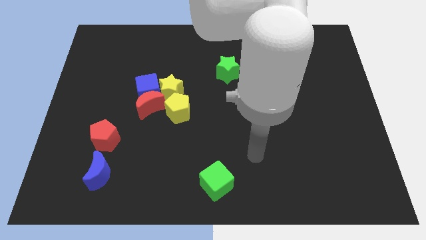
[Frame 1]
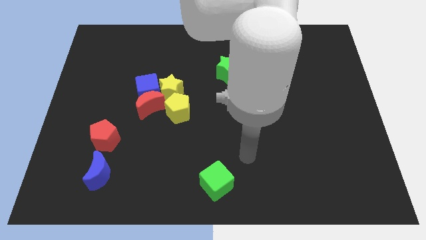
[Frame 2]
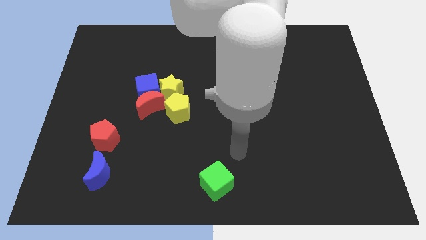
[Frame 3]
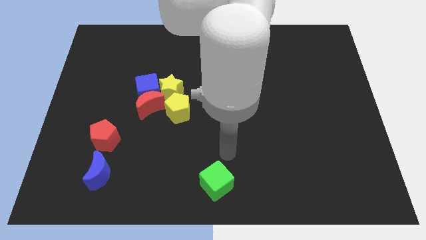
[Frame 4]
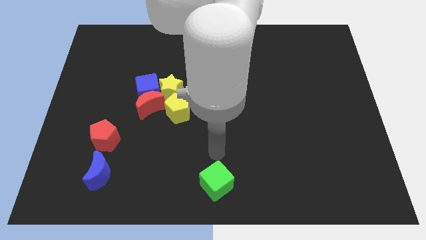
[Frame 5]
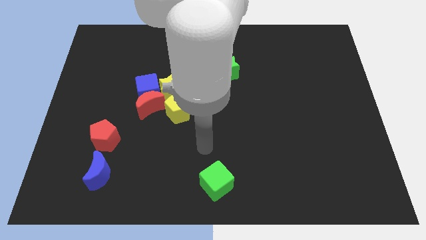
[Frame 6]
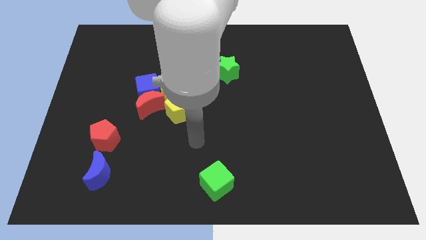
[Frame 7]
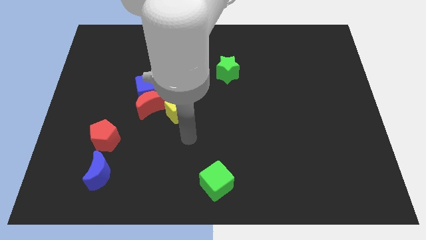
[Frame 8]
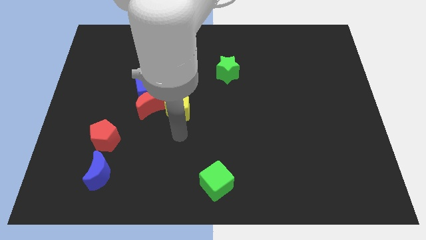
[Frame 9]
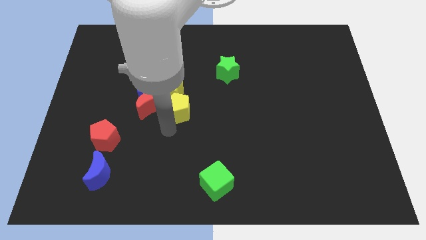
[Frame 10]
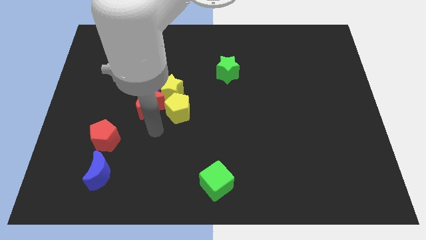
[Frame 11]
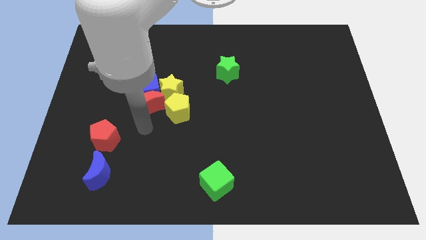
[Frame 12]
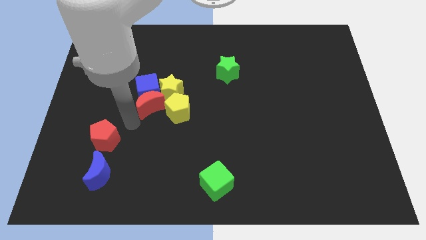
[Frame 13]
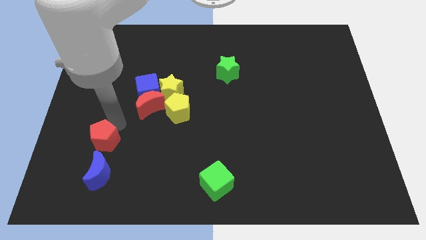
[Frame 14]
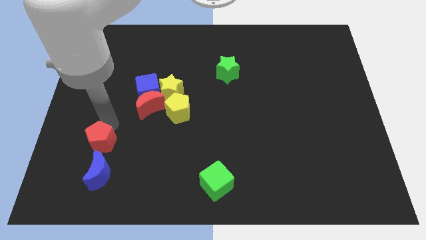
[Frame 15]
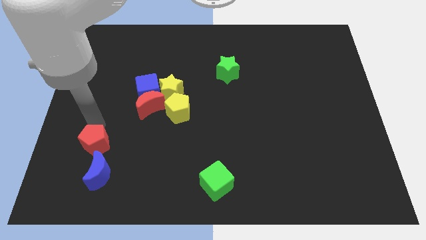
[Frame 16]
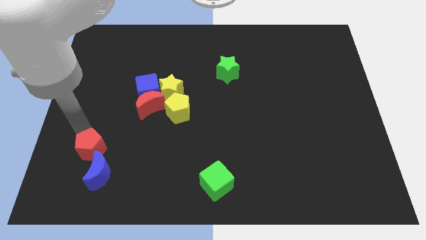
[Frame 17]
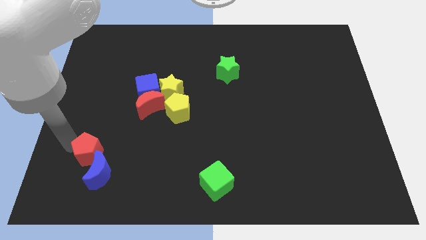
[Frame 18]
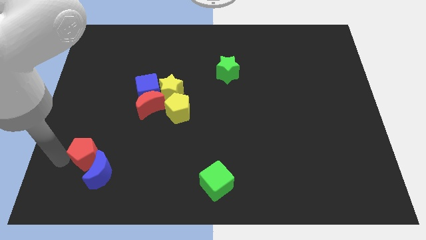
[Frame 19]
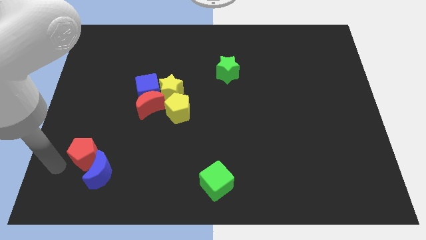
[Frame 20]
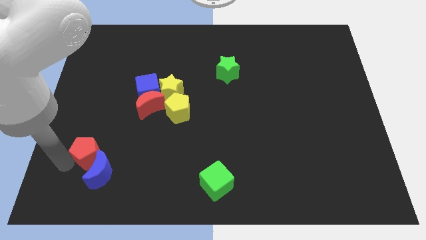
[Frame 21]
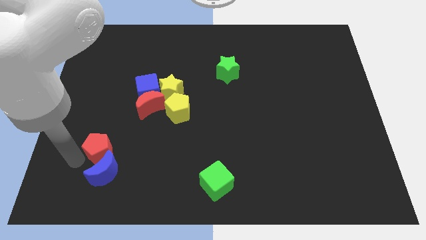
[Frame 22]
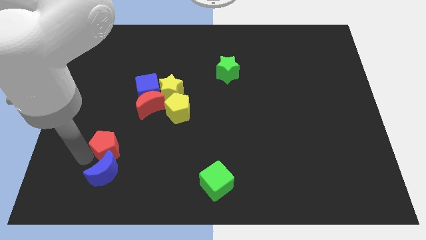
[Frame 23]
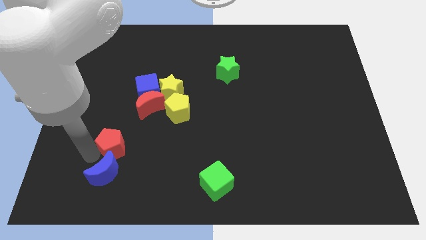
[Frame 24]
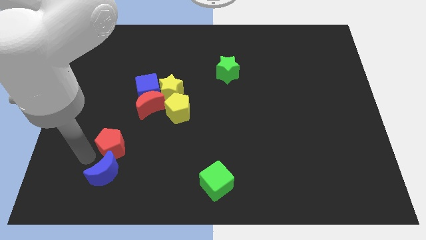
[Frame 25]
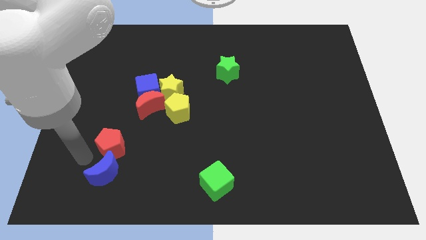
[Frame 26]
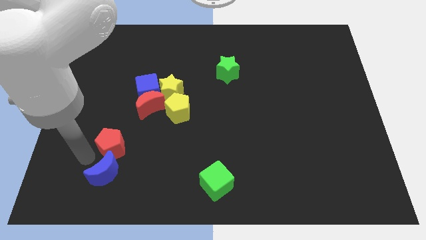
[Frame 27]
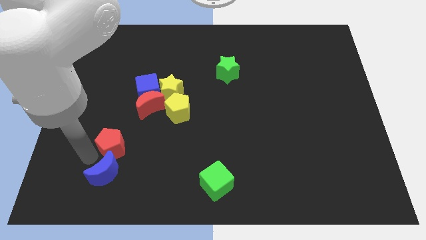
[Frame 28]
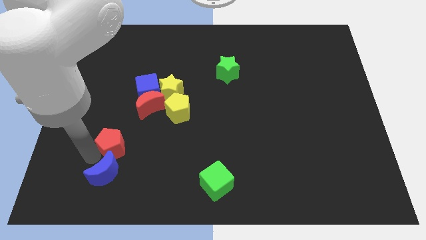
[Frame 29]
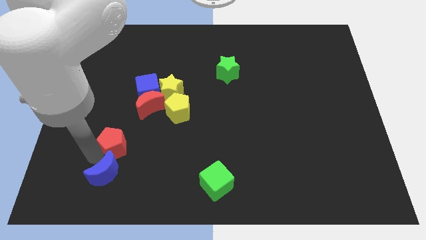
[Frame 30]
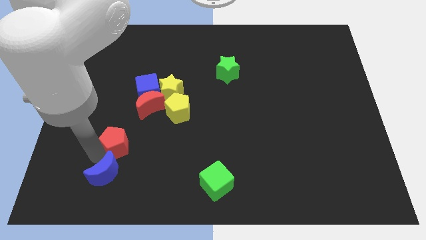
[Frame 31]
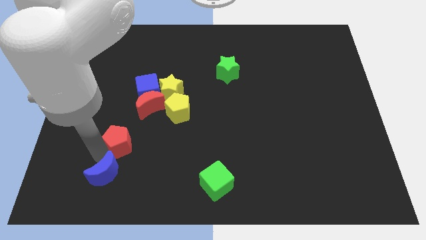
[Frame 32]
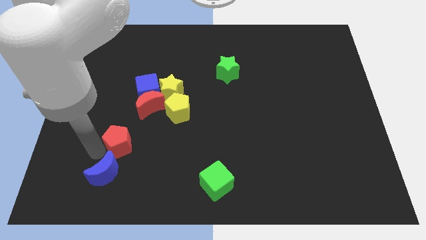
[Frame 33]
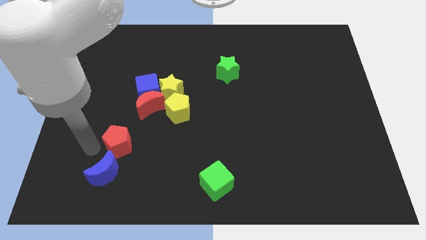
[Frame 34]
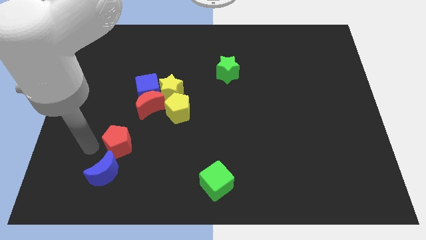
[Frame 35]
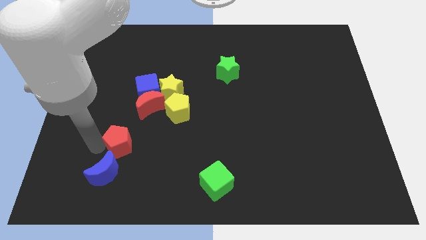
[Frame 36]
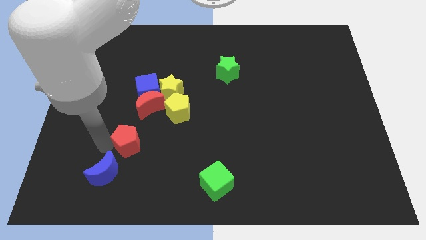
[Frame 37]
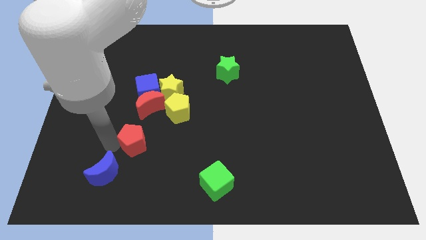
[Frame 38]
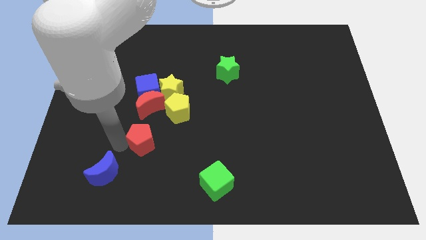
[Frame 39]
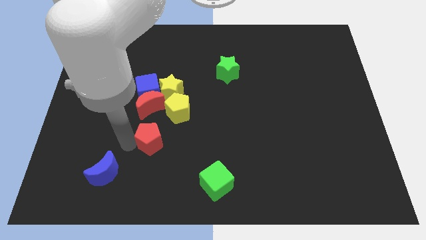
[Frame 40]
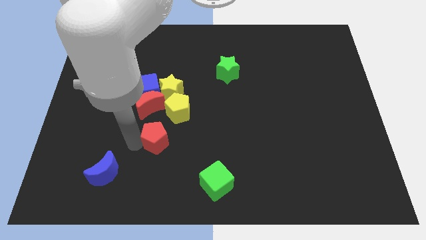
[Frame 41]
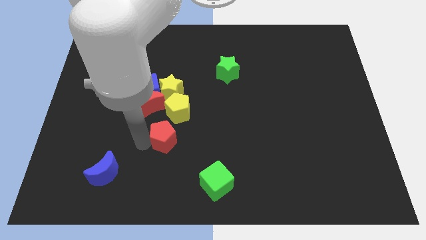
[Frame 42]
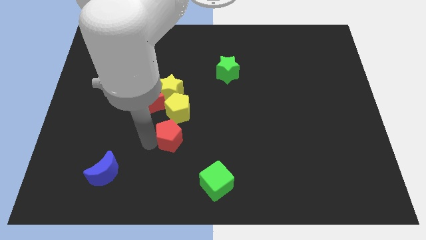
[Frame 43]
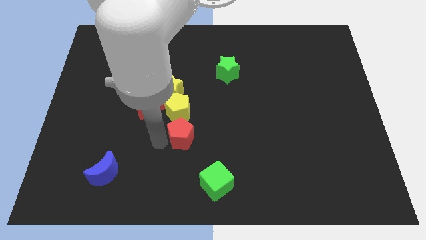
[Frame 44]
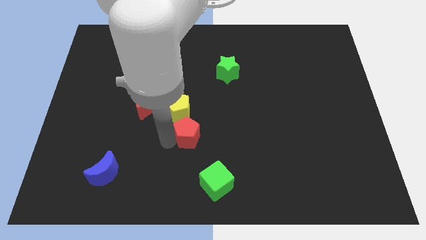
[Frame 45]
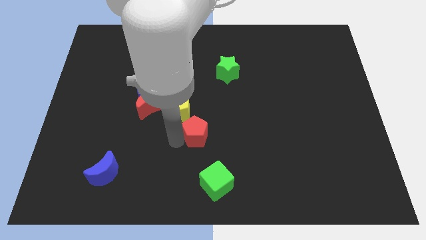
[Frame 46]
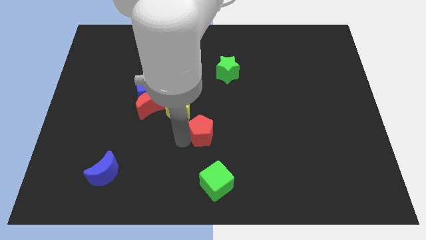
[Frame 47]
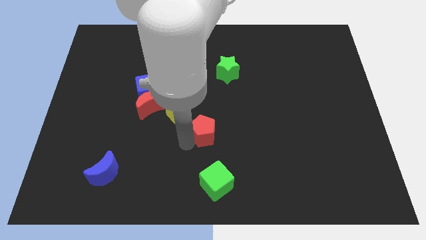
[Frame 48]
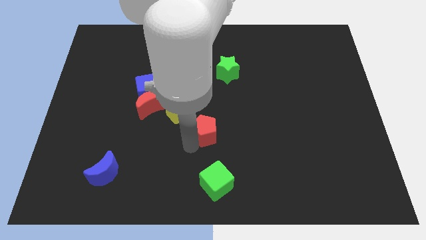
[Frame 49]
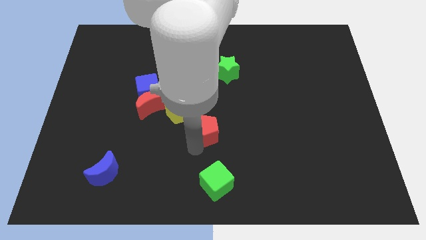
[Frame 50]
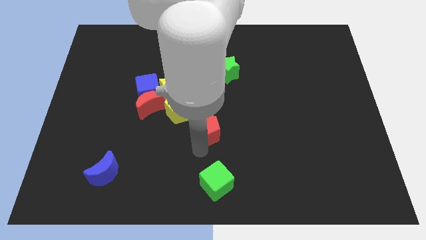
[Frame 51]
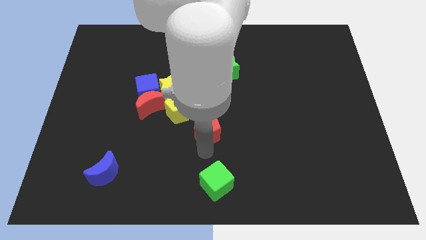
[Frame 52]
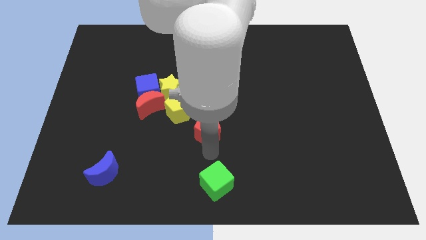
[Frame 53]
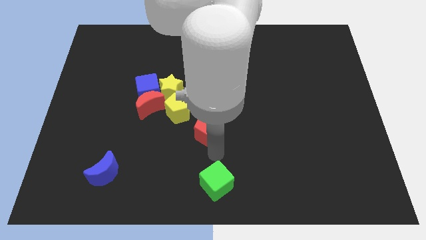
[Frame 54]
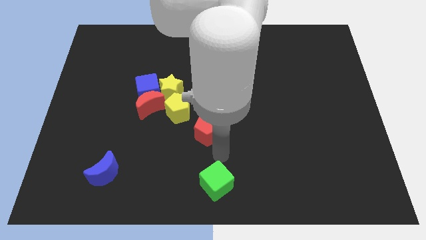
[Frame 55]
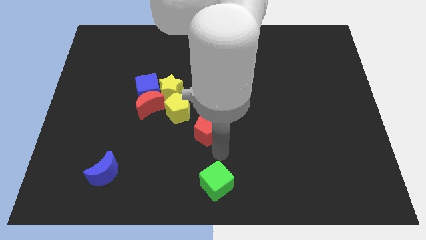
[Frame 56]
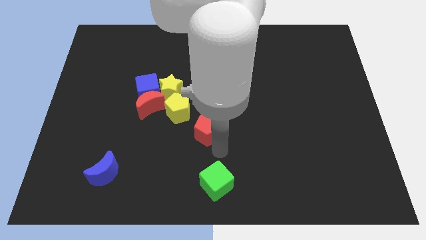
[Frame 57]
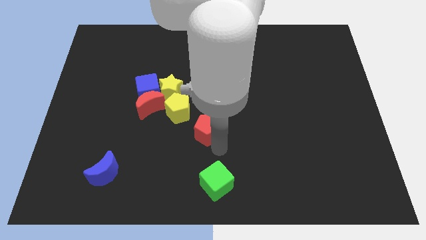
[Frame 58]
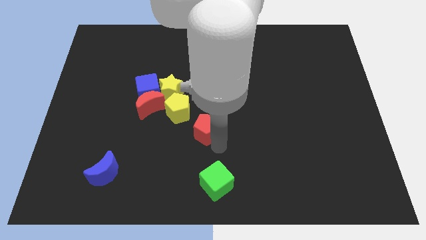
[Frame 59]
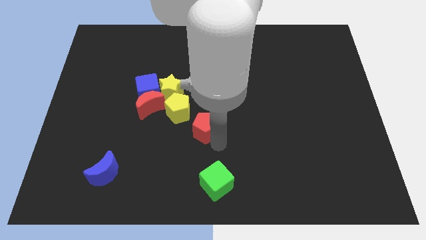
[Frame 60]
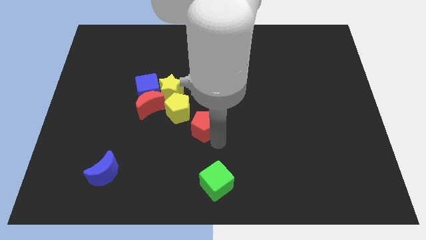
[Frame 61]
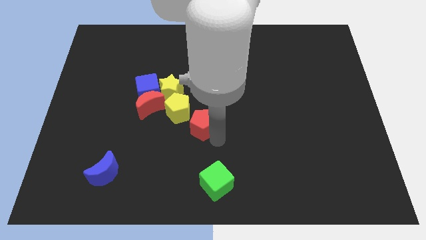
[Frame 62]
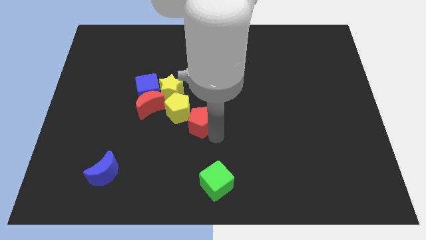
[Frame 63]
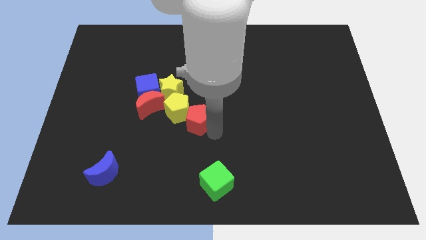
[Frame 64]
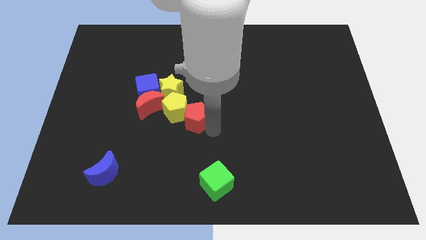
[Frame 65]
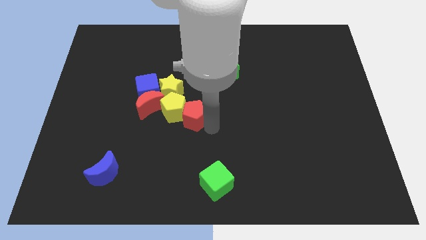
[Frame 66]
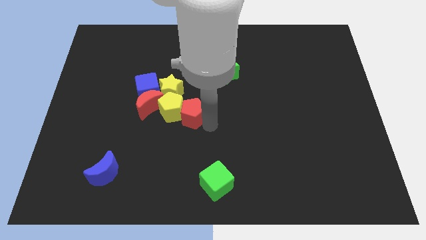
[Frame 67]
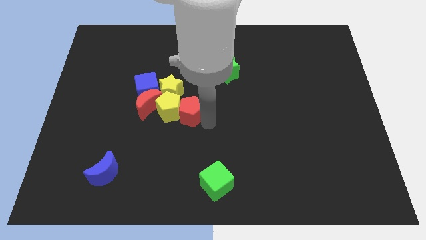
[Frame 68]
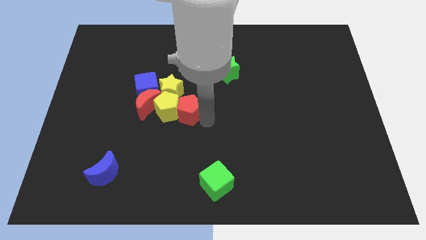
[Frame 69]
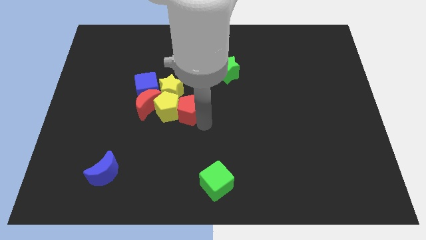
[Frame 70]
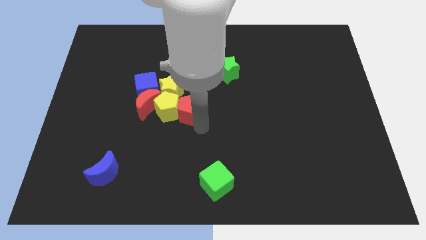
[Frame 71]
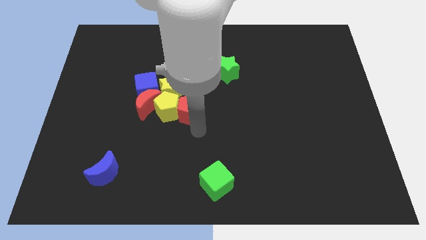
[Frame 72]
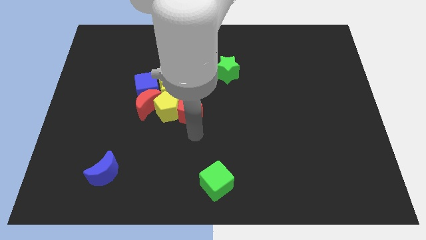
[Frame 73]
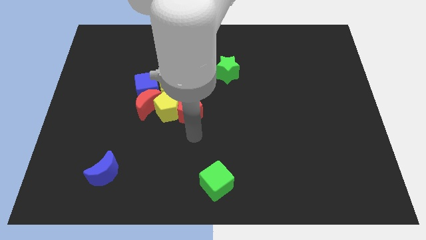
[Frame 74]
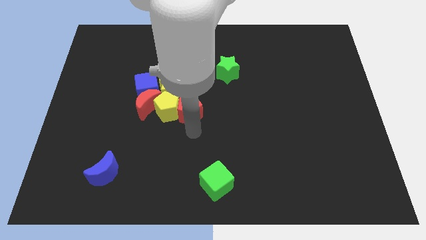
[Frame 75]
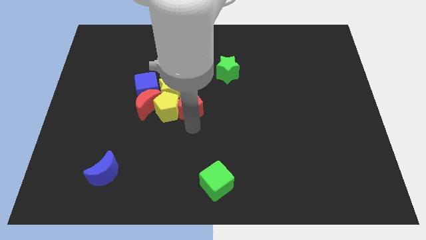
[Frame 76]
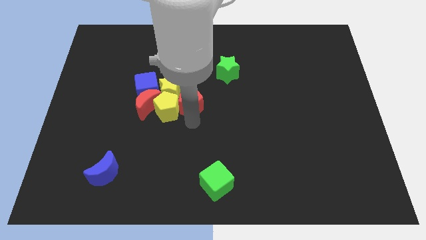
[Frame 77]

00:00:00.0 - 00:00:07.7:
put the red pentagon to the yellow star
